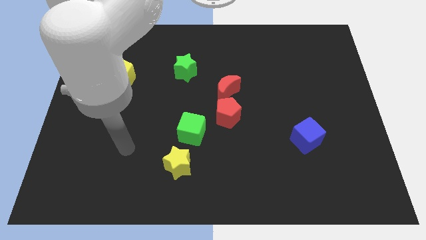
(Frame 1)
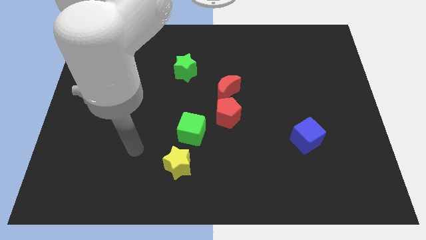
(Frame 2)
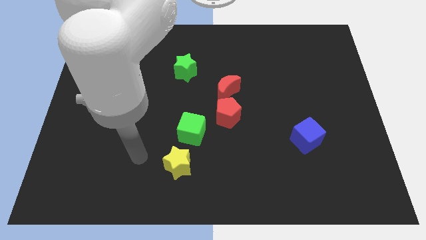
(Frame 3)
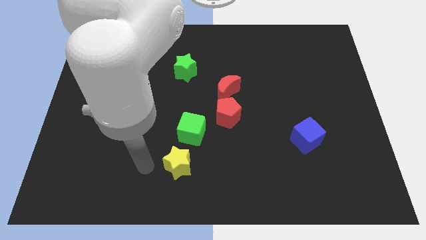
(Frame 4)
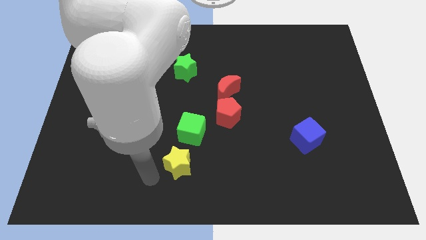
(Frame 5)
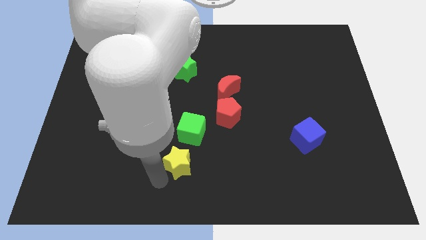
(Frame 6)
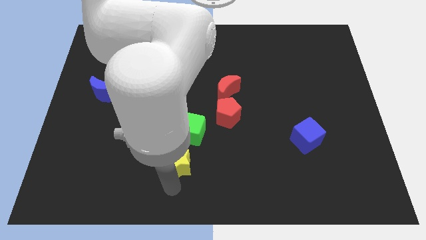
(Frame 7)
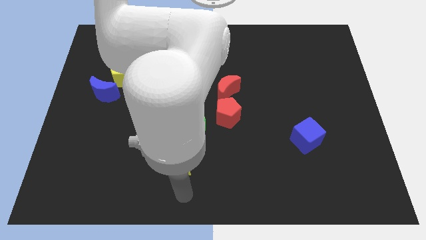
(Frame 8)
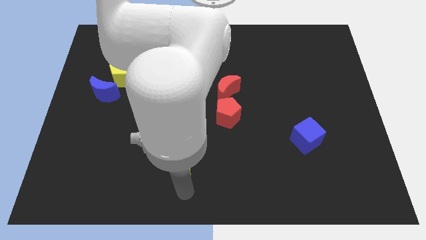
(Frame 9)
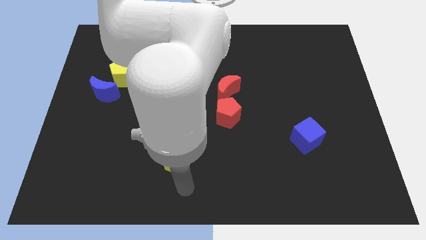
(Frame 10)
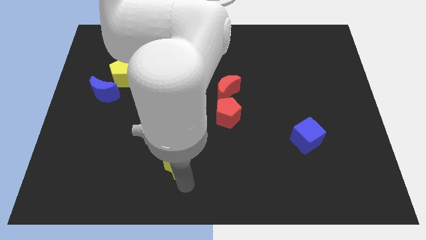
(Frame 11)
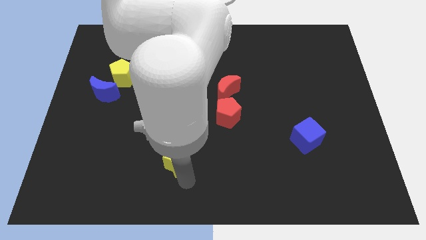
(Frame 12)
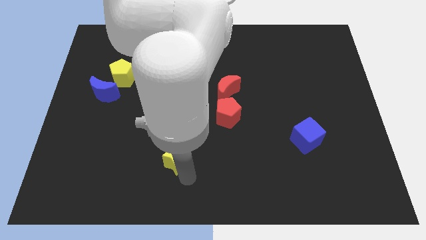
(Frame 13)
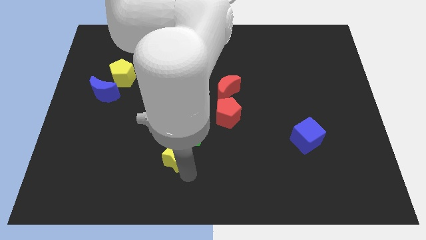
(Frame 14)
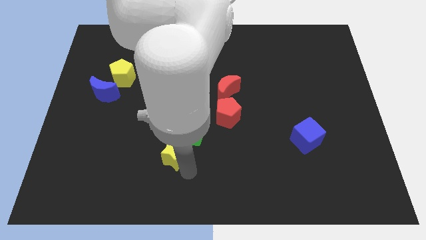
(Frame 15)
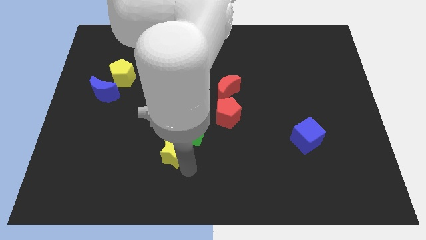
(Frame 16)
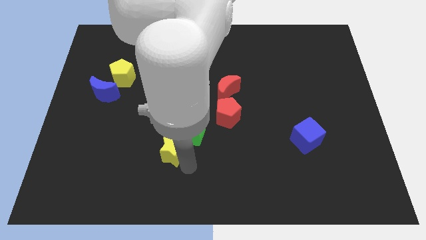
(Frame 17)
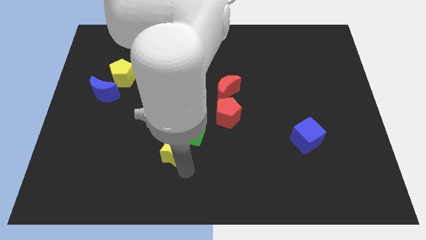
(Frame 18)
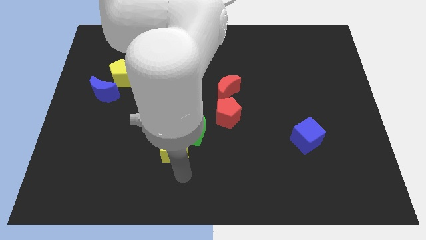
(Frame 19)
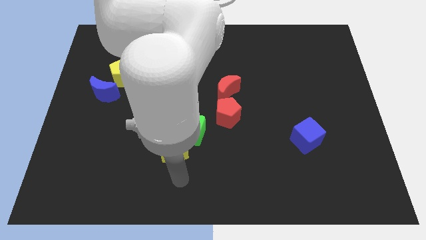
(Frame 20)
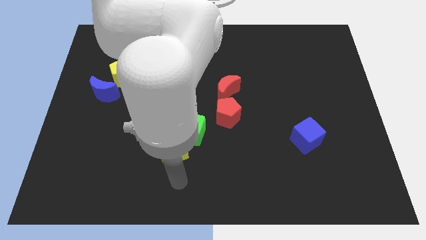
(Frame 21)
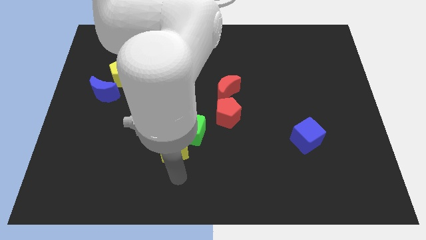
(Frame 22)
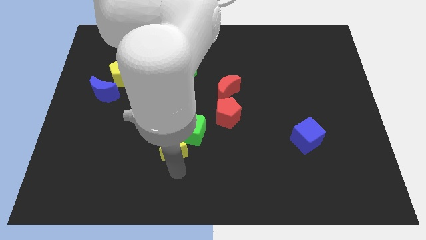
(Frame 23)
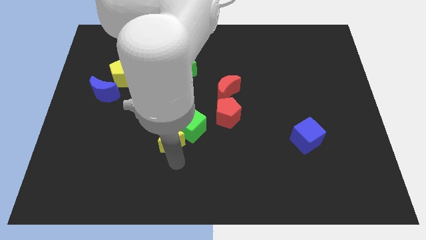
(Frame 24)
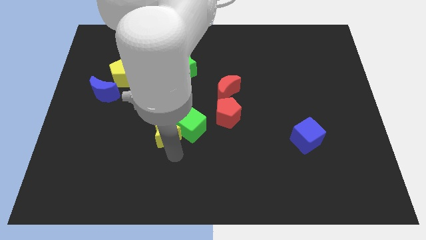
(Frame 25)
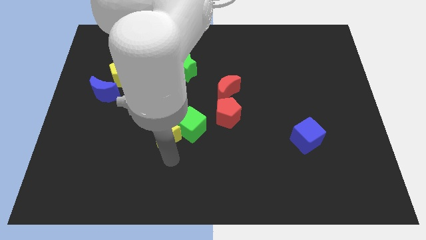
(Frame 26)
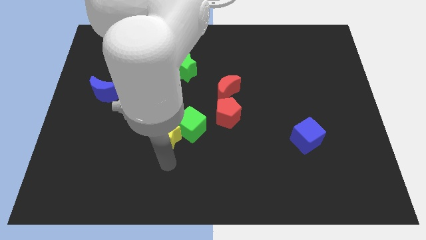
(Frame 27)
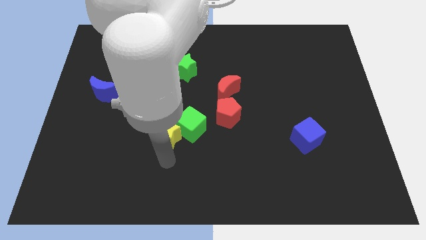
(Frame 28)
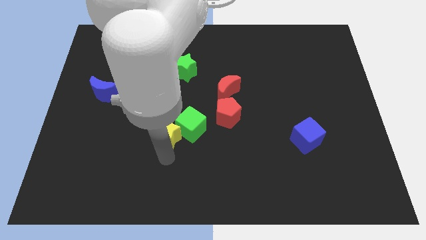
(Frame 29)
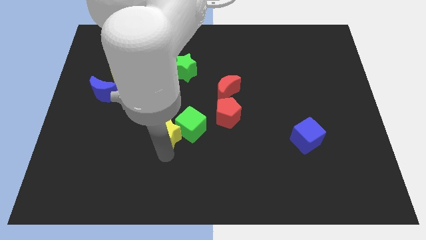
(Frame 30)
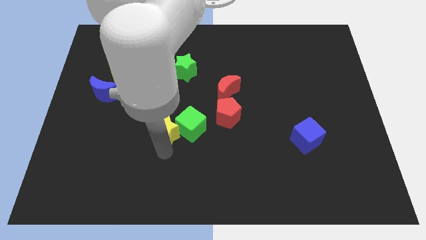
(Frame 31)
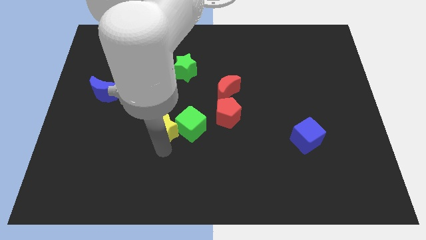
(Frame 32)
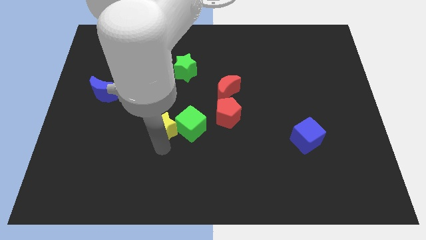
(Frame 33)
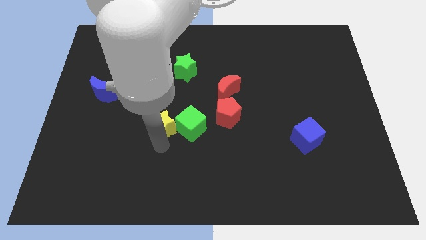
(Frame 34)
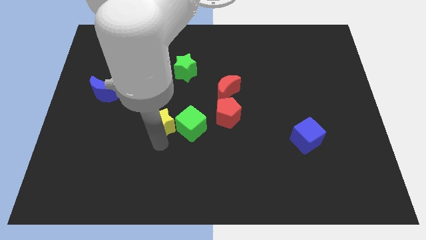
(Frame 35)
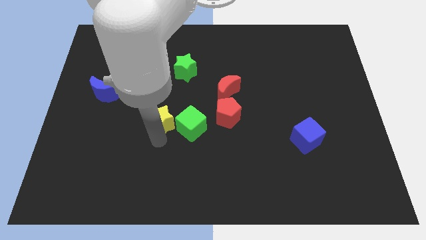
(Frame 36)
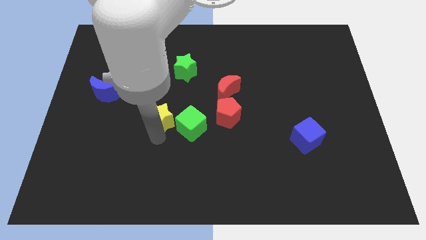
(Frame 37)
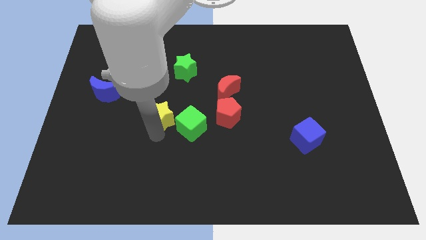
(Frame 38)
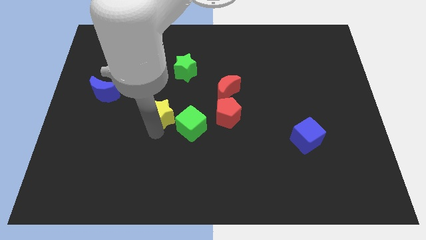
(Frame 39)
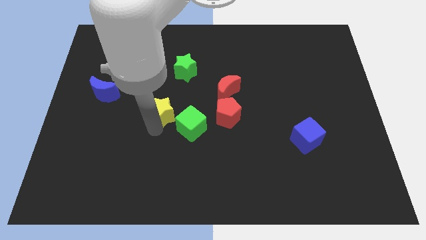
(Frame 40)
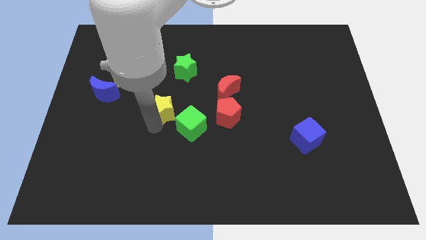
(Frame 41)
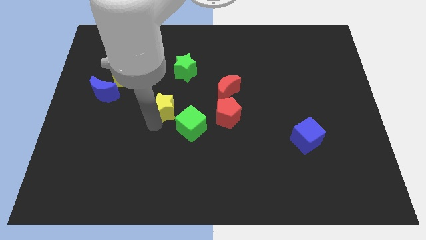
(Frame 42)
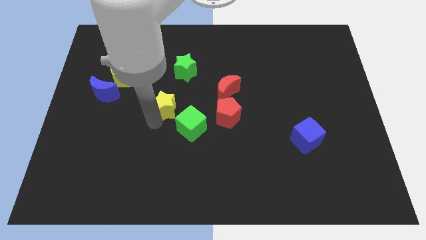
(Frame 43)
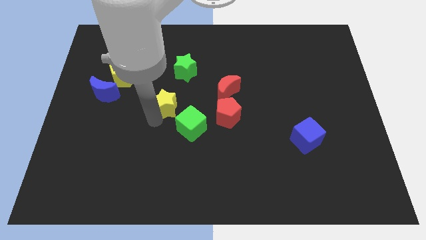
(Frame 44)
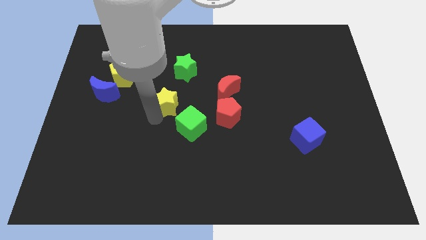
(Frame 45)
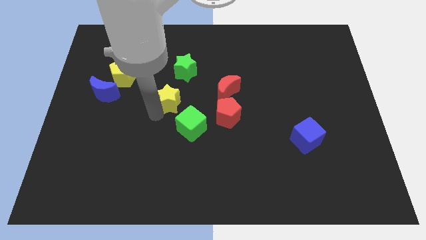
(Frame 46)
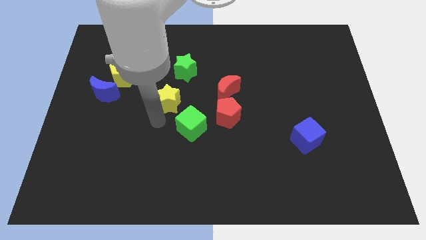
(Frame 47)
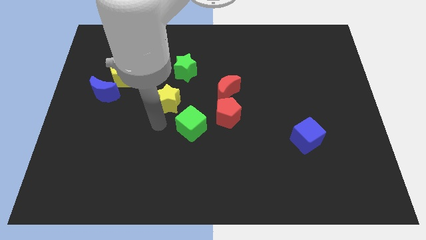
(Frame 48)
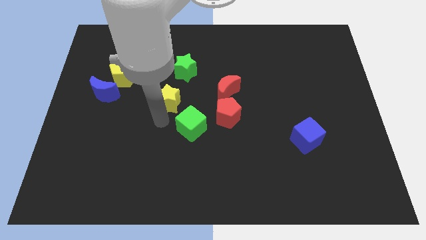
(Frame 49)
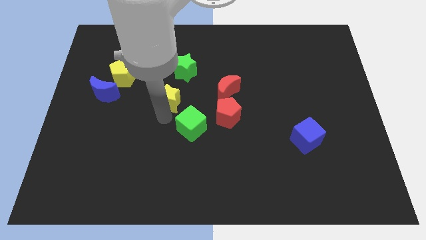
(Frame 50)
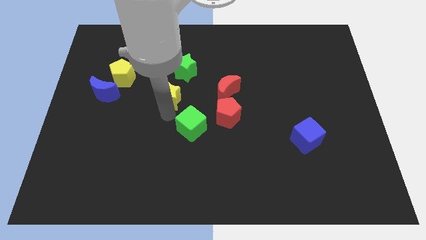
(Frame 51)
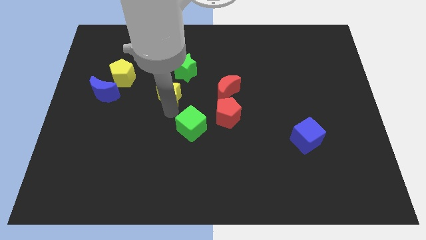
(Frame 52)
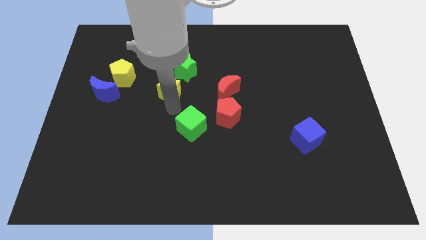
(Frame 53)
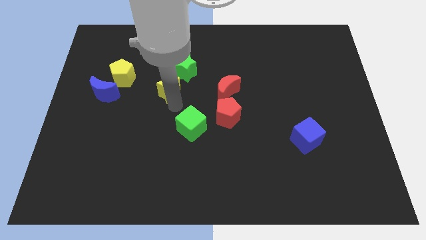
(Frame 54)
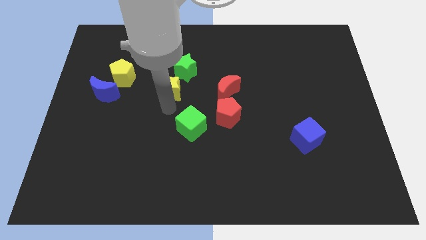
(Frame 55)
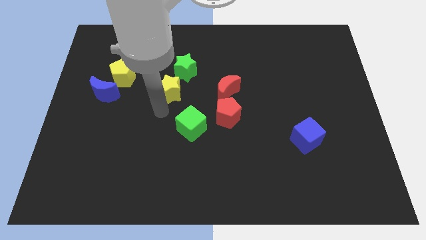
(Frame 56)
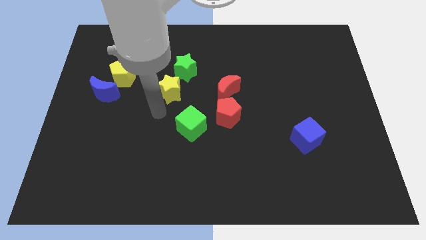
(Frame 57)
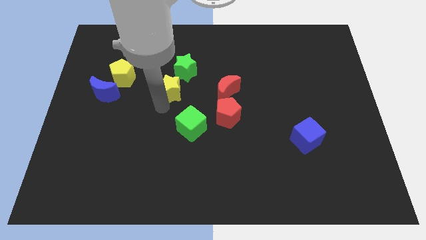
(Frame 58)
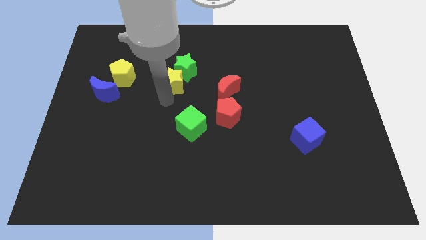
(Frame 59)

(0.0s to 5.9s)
slide the yellow star next to the green star

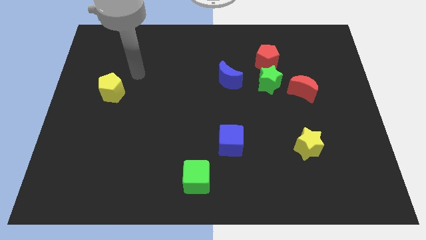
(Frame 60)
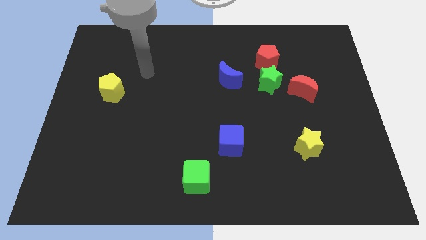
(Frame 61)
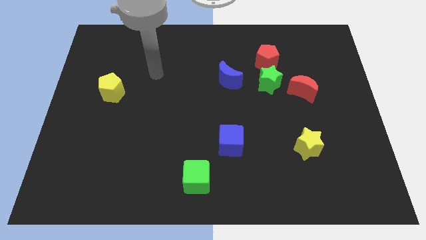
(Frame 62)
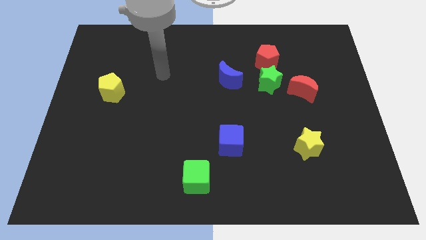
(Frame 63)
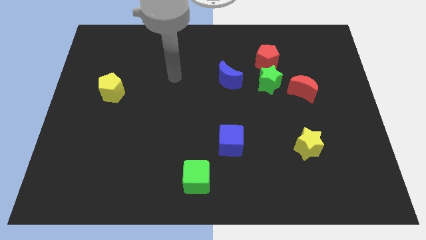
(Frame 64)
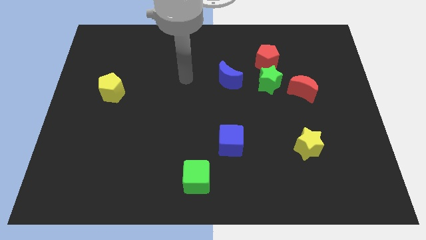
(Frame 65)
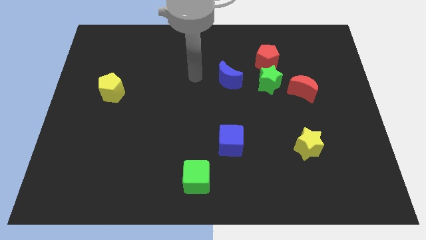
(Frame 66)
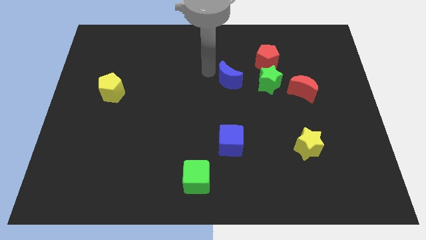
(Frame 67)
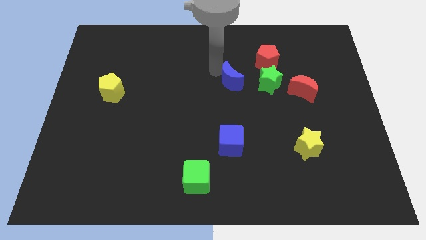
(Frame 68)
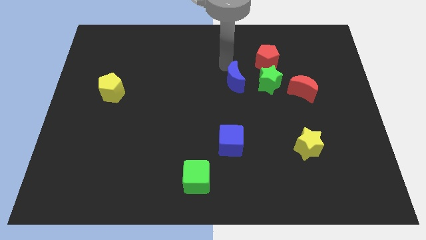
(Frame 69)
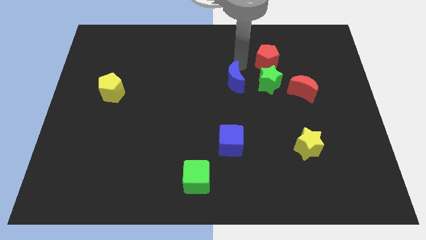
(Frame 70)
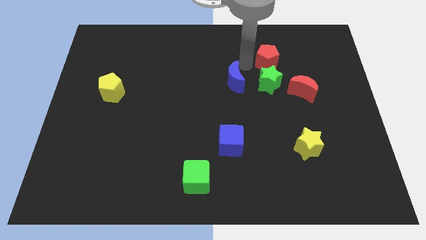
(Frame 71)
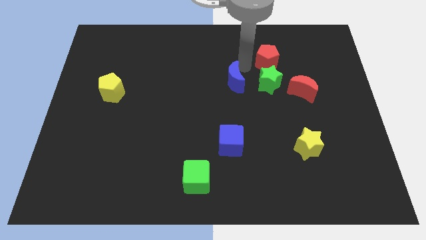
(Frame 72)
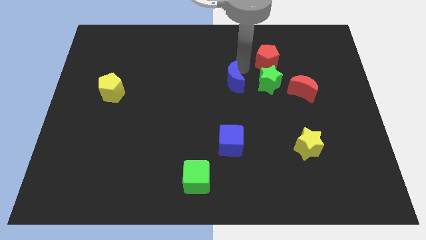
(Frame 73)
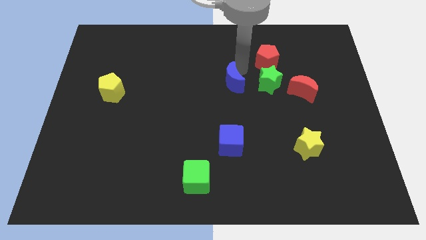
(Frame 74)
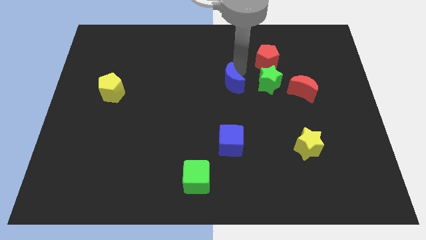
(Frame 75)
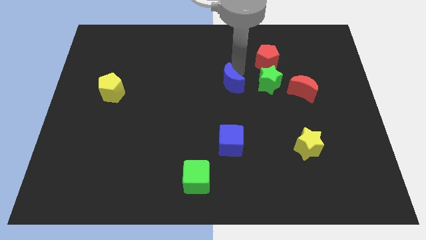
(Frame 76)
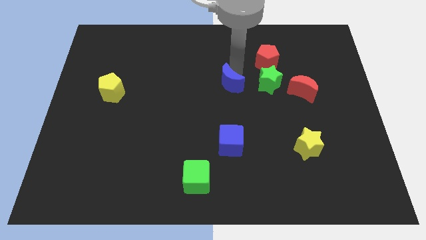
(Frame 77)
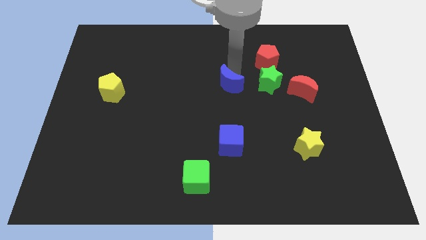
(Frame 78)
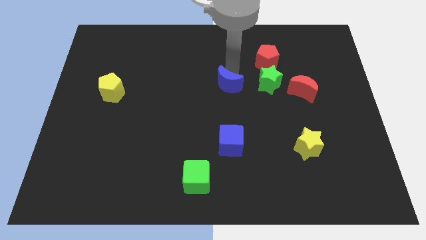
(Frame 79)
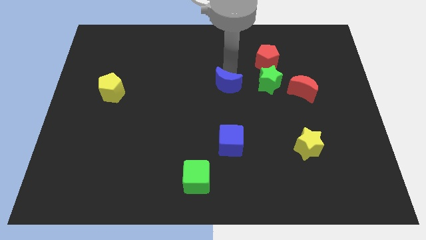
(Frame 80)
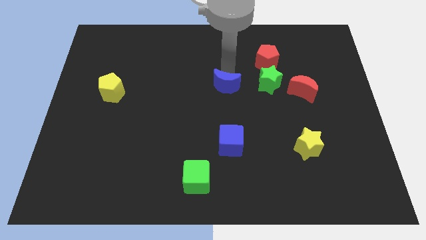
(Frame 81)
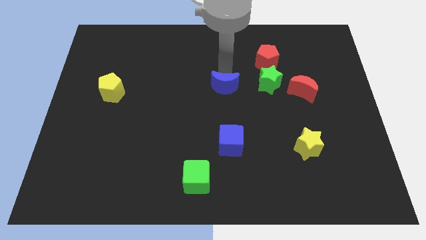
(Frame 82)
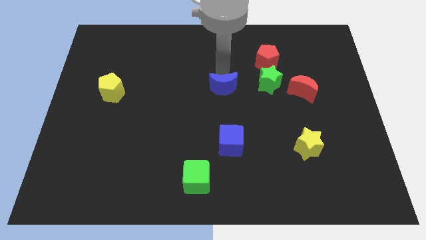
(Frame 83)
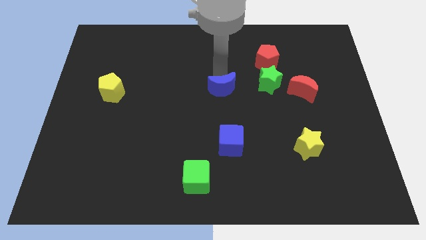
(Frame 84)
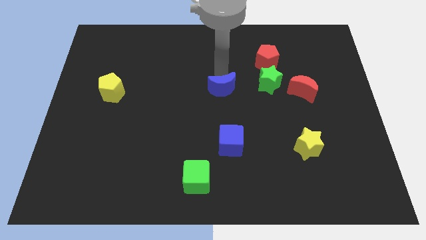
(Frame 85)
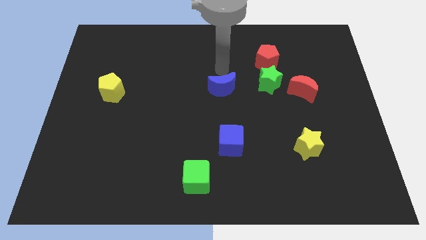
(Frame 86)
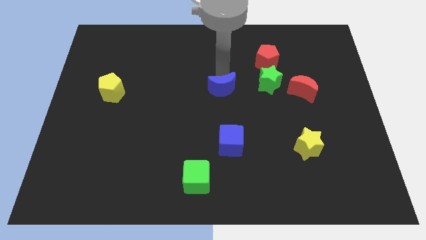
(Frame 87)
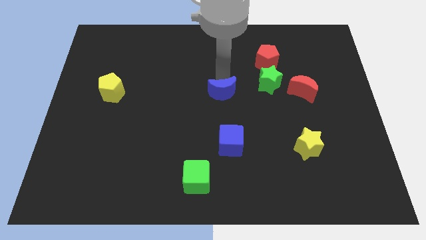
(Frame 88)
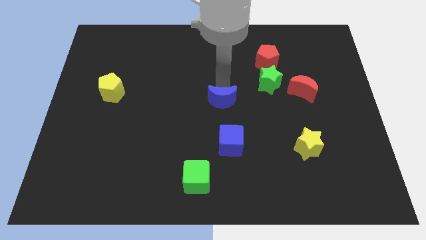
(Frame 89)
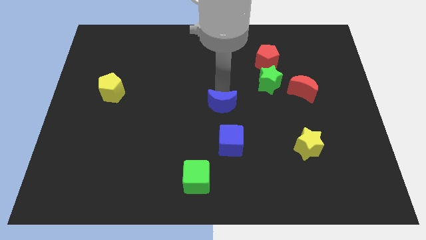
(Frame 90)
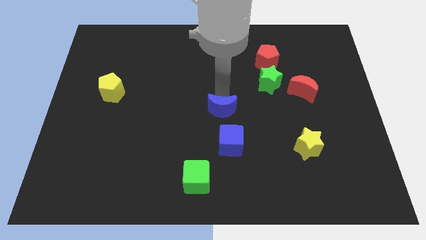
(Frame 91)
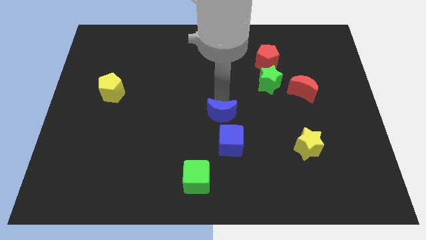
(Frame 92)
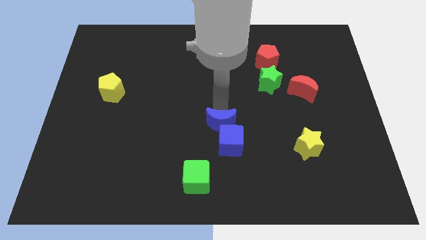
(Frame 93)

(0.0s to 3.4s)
put the blue moon towards the blue cube
